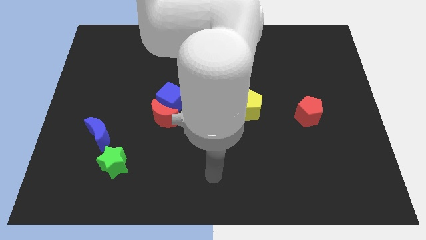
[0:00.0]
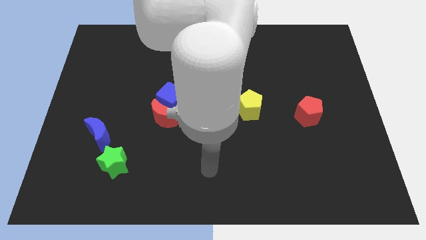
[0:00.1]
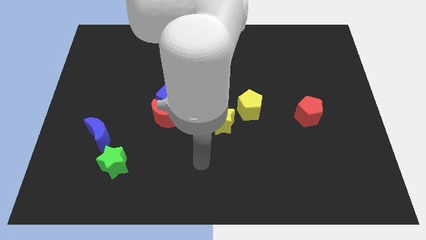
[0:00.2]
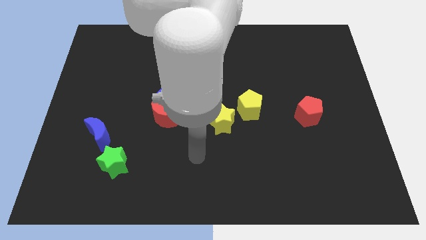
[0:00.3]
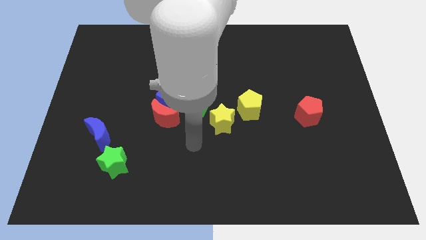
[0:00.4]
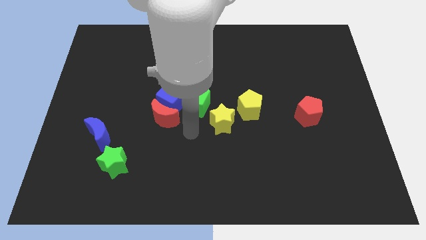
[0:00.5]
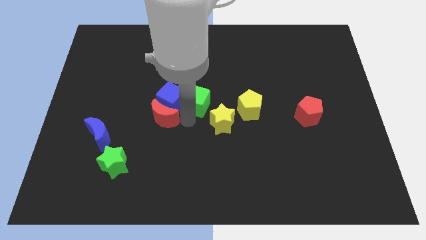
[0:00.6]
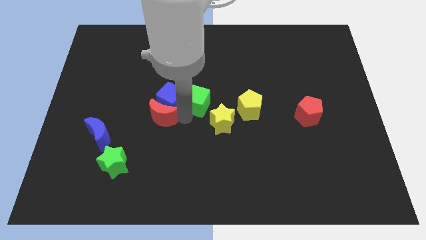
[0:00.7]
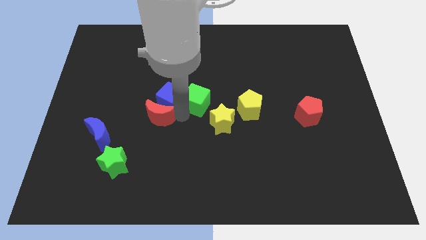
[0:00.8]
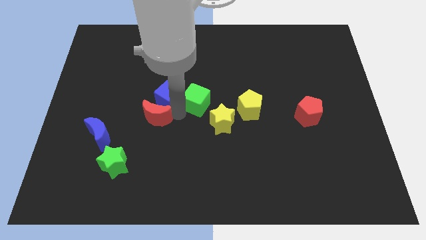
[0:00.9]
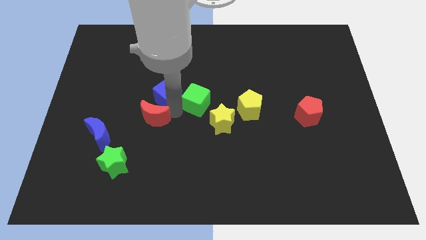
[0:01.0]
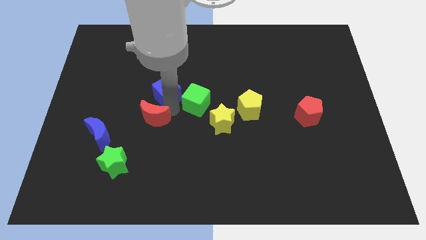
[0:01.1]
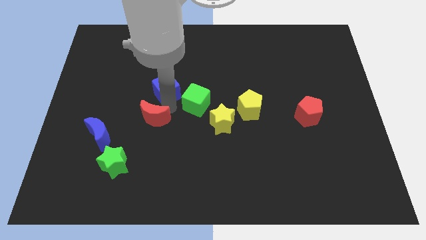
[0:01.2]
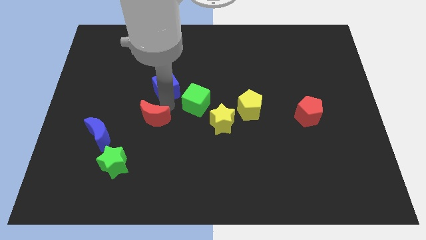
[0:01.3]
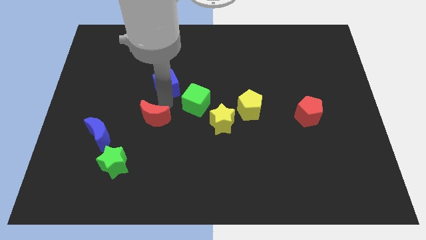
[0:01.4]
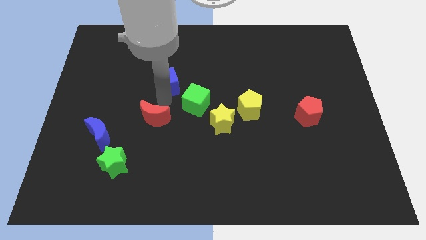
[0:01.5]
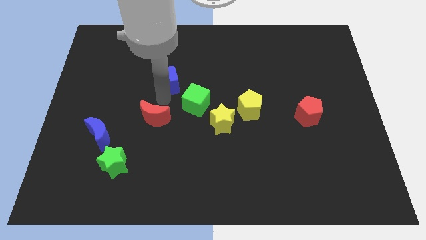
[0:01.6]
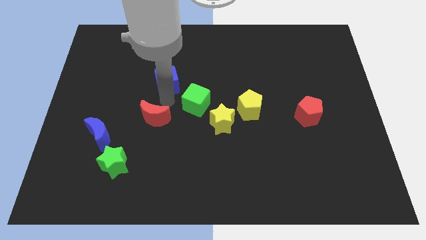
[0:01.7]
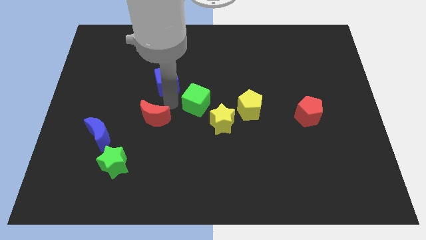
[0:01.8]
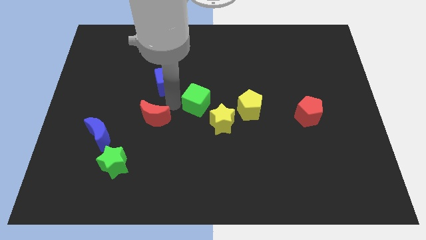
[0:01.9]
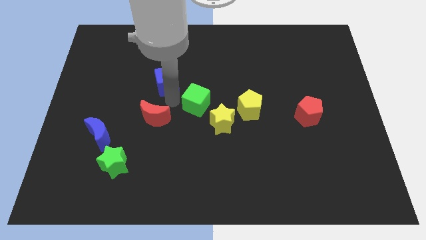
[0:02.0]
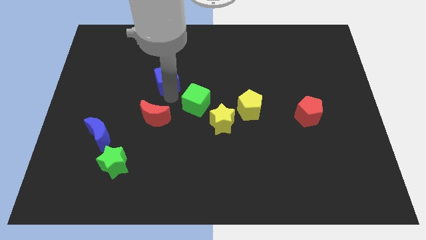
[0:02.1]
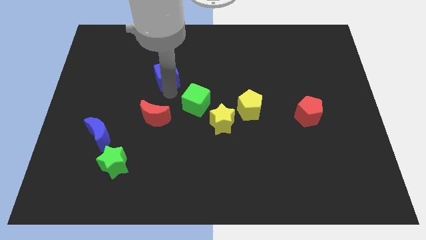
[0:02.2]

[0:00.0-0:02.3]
move the blue cube away from the red moon and green cube

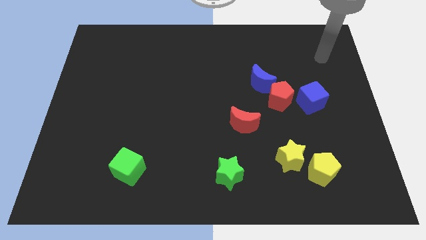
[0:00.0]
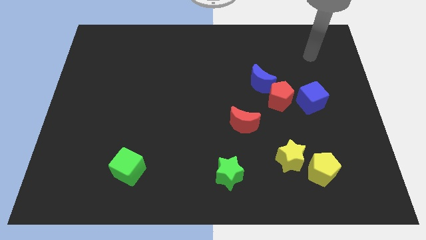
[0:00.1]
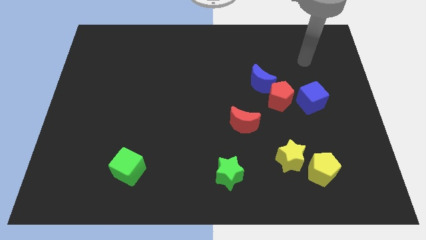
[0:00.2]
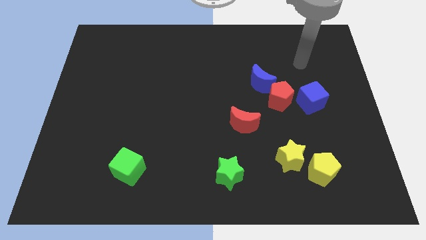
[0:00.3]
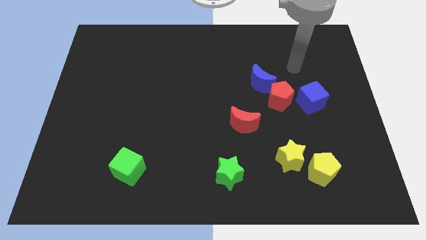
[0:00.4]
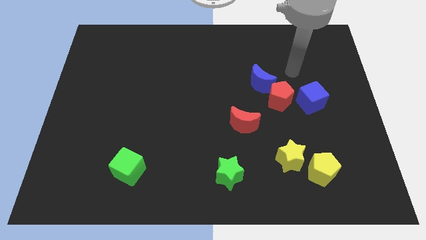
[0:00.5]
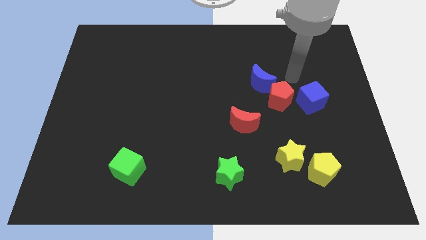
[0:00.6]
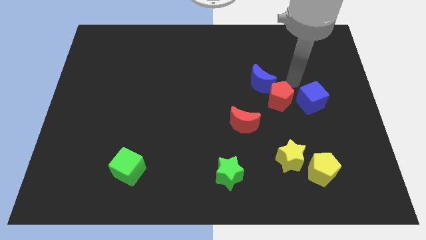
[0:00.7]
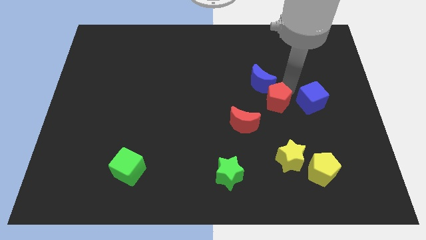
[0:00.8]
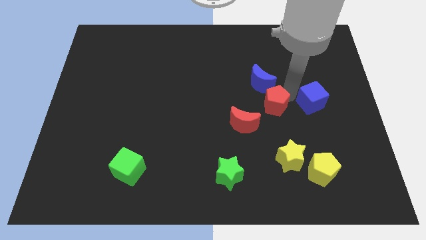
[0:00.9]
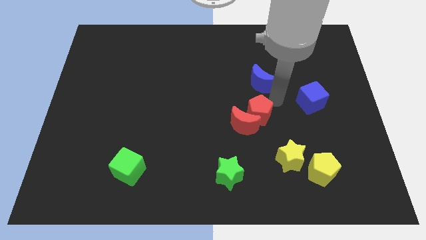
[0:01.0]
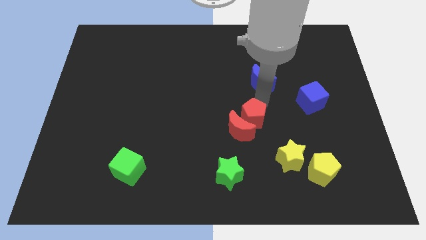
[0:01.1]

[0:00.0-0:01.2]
pull the blue moon apart from the red pentagon

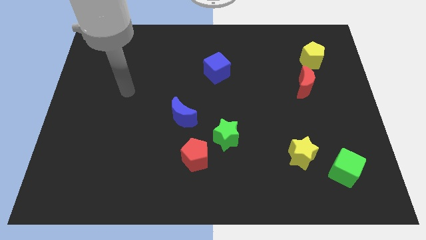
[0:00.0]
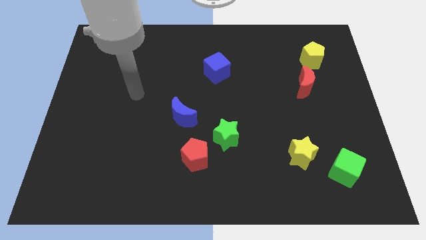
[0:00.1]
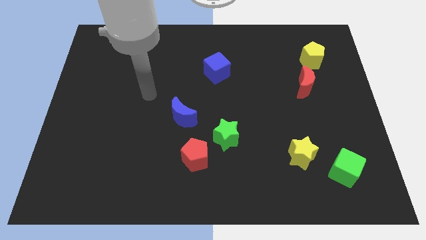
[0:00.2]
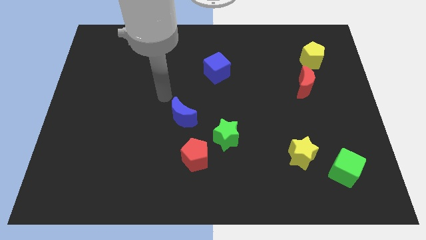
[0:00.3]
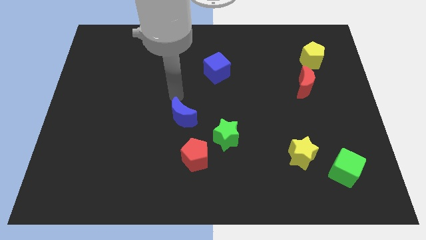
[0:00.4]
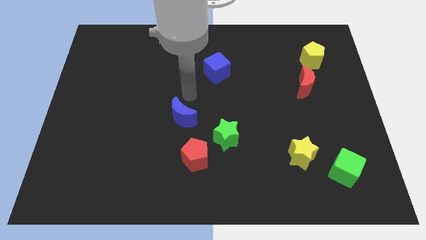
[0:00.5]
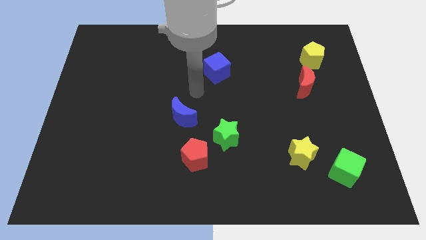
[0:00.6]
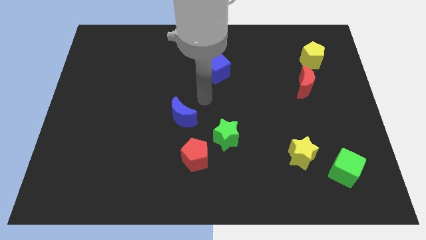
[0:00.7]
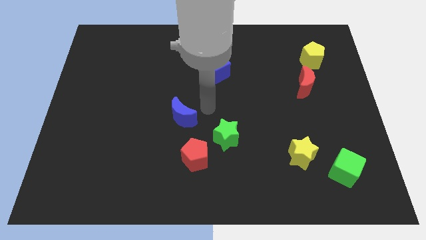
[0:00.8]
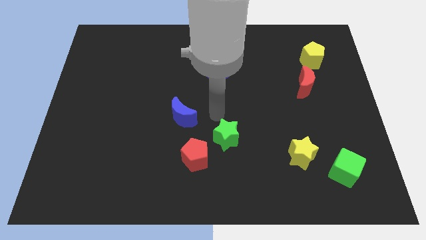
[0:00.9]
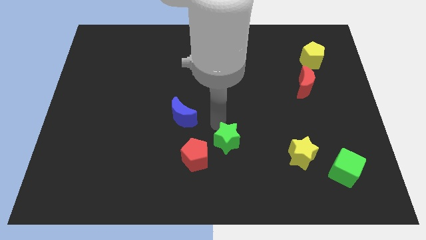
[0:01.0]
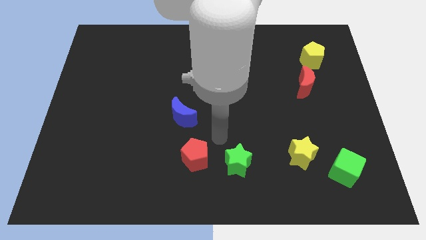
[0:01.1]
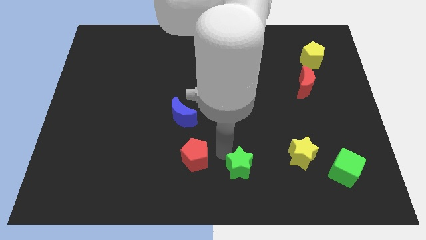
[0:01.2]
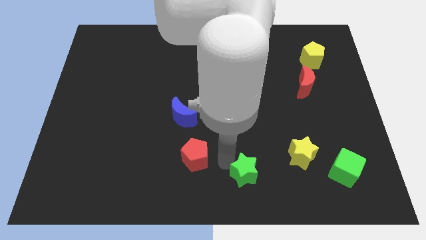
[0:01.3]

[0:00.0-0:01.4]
separate the red pentagon from the green star

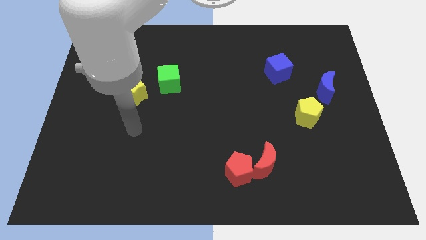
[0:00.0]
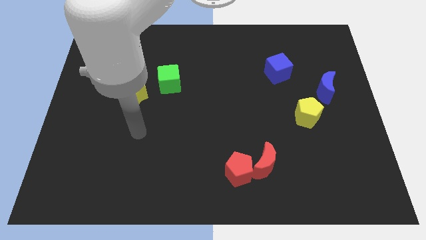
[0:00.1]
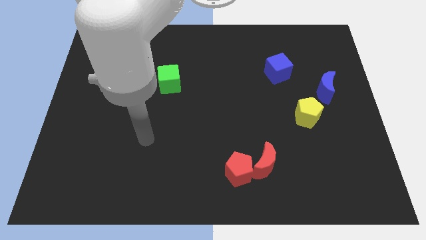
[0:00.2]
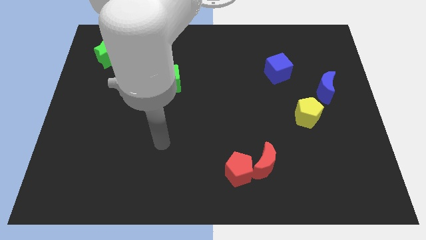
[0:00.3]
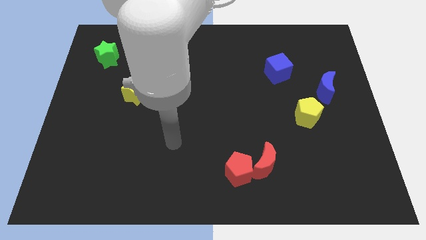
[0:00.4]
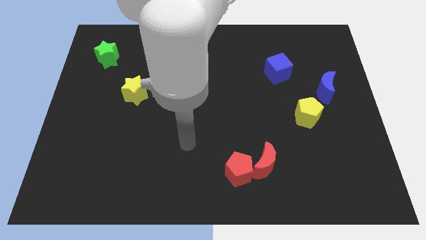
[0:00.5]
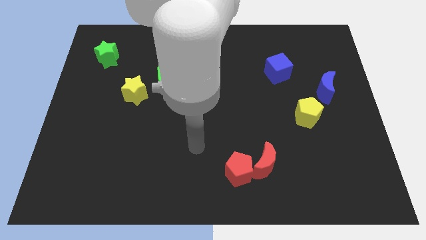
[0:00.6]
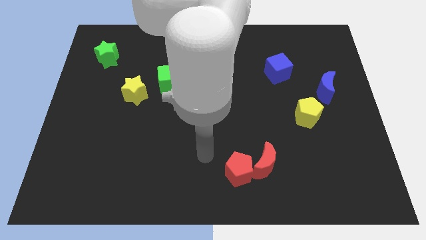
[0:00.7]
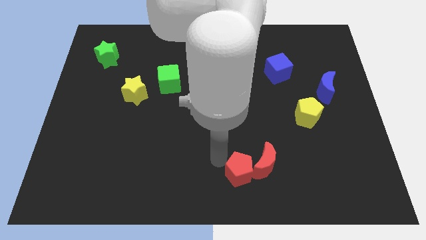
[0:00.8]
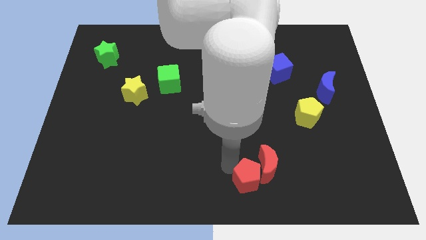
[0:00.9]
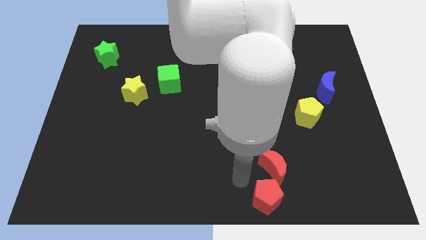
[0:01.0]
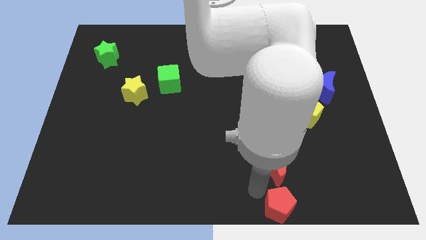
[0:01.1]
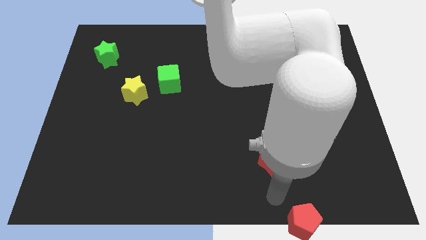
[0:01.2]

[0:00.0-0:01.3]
separate the red moon from the red pentagon

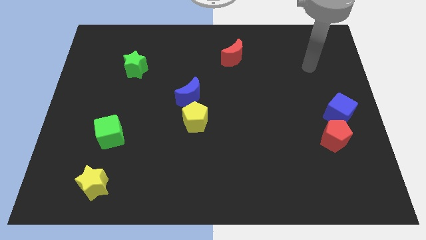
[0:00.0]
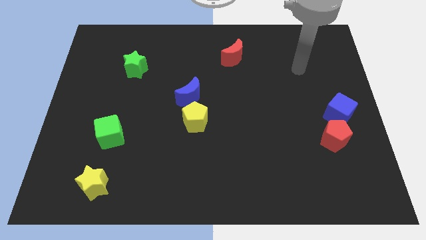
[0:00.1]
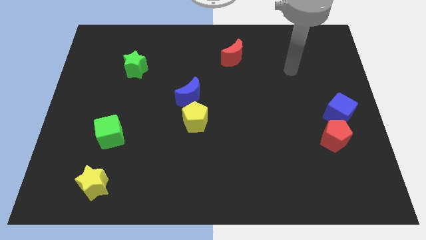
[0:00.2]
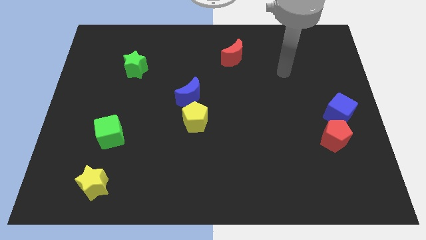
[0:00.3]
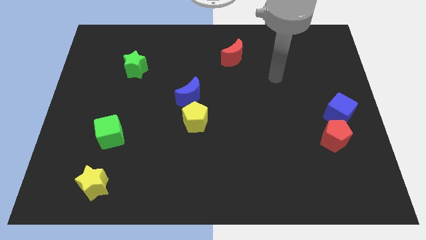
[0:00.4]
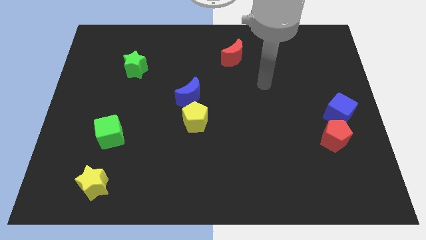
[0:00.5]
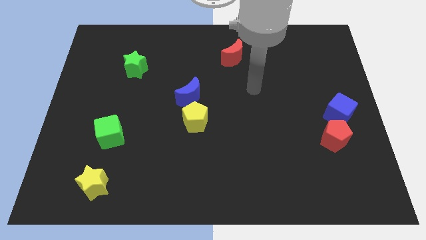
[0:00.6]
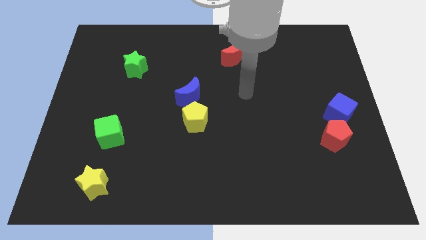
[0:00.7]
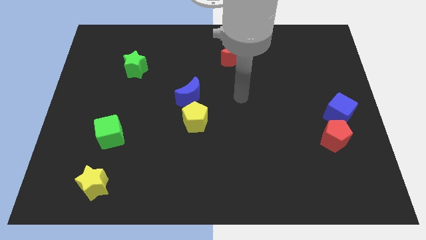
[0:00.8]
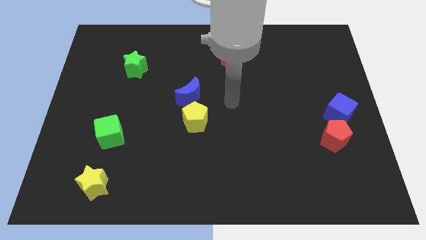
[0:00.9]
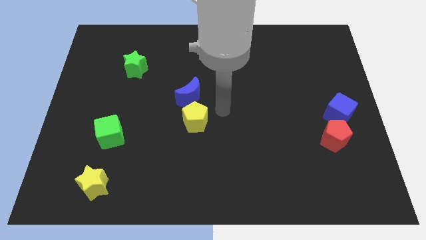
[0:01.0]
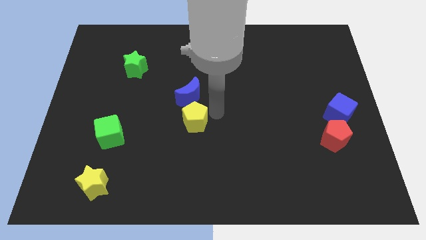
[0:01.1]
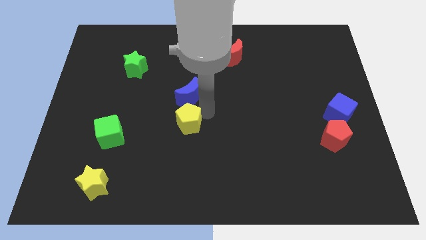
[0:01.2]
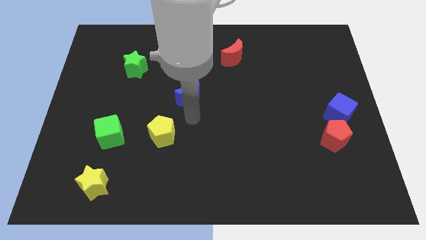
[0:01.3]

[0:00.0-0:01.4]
pull the blue moon apart from the yellow pentagon

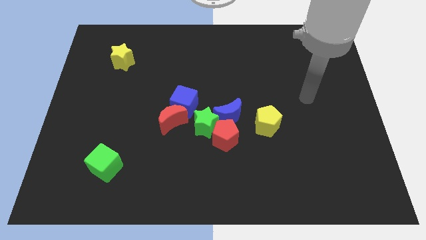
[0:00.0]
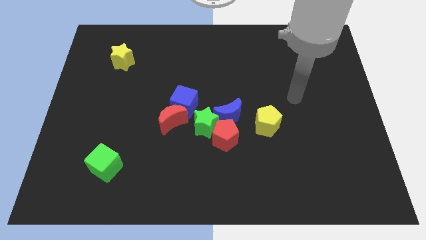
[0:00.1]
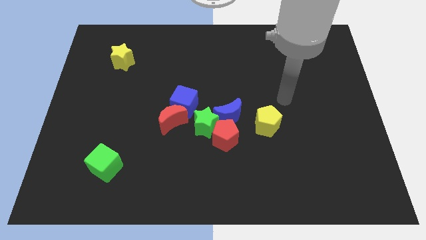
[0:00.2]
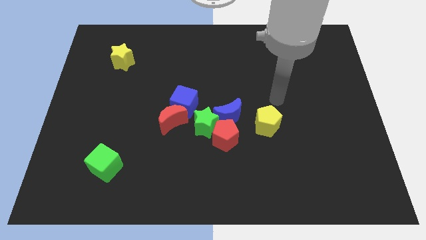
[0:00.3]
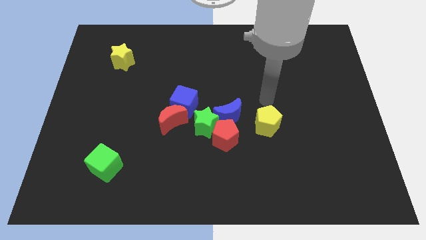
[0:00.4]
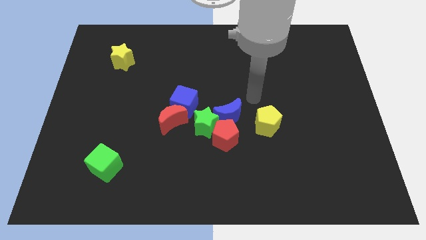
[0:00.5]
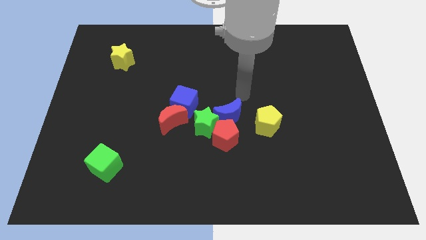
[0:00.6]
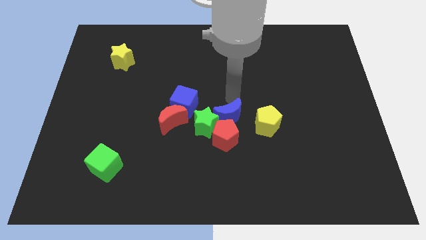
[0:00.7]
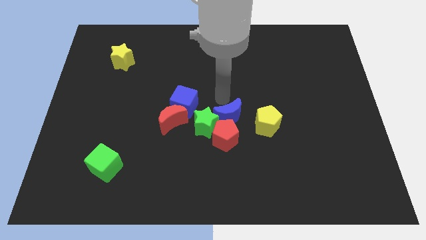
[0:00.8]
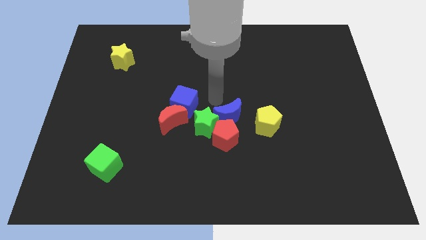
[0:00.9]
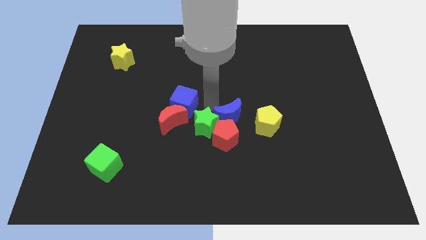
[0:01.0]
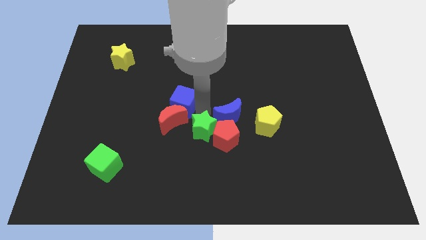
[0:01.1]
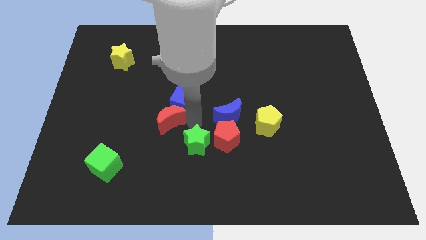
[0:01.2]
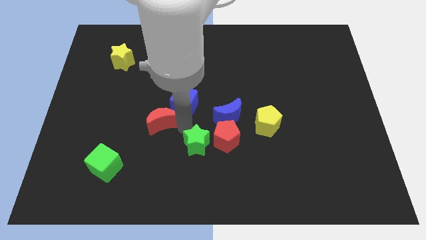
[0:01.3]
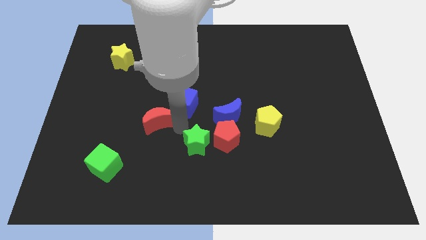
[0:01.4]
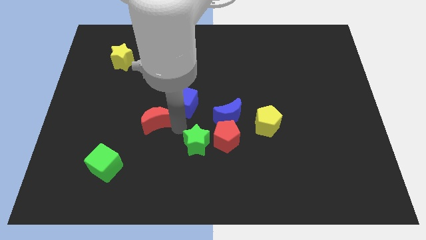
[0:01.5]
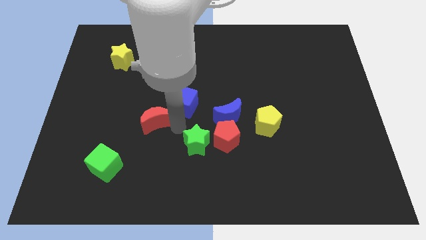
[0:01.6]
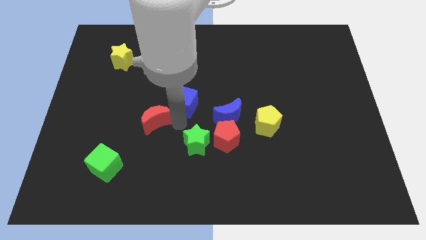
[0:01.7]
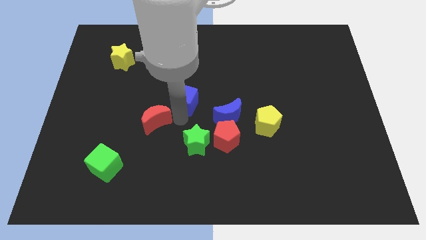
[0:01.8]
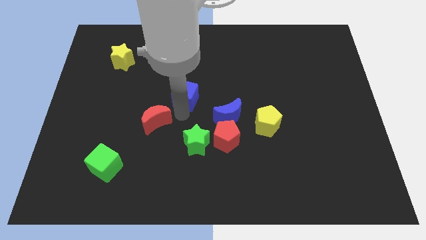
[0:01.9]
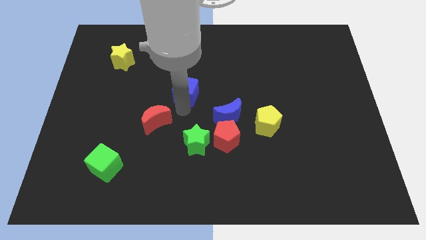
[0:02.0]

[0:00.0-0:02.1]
separate the blue cube from the red moon and green star
